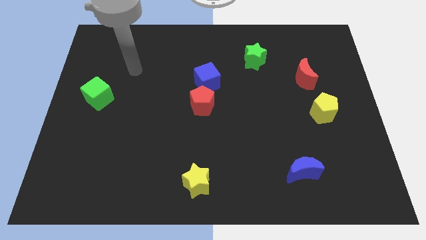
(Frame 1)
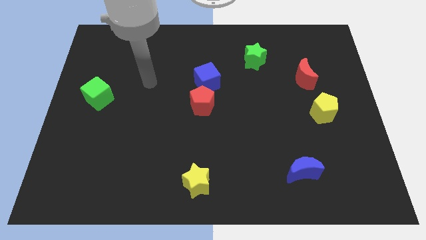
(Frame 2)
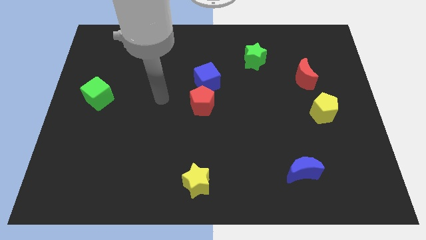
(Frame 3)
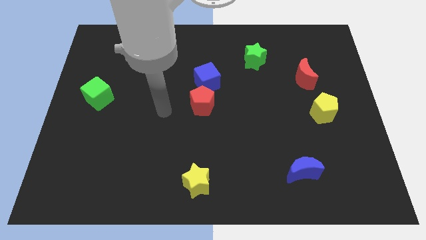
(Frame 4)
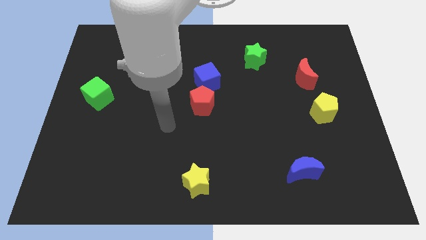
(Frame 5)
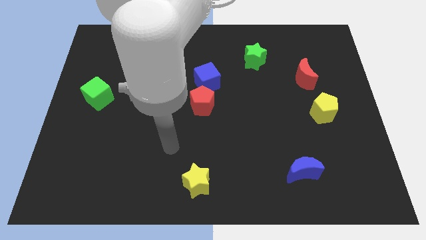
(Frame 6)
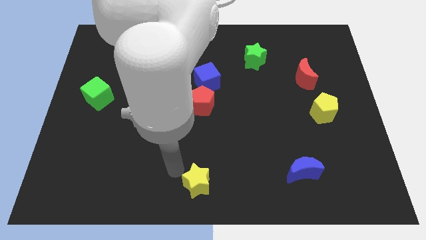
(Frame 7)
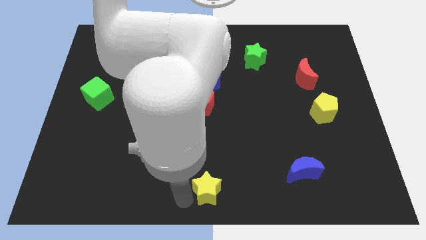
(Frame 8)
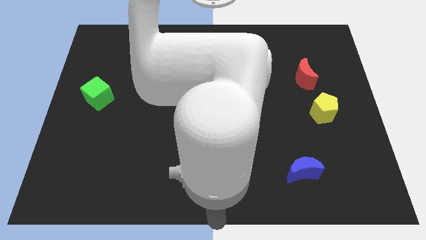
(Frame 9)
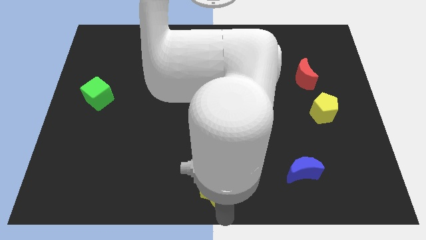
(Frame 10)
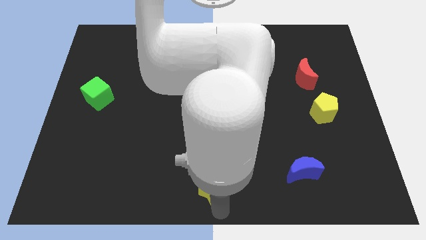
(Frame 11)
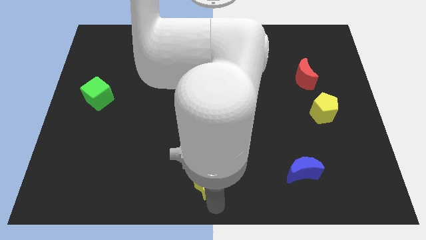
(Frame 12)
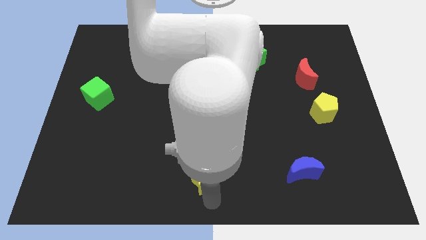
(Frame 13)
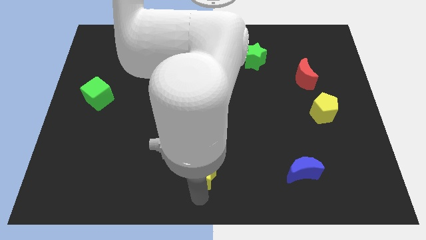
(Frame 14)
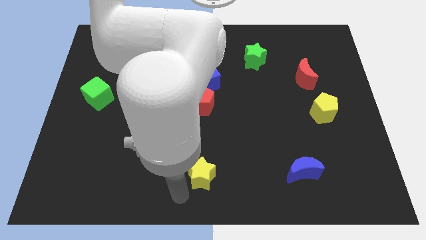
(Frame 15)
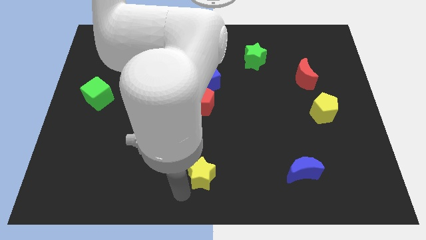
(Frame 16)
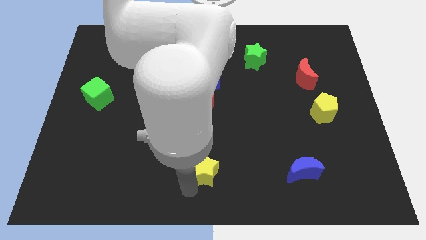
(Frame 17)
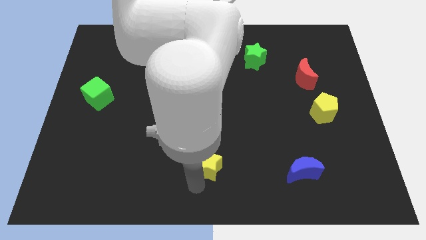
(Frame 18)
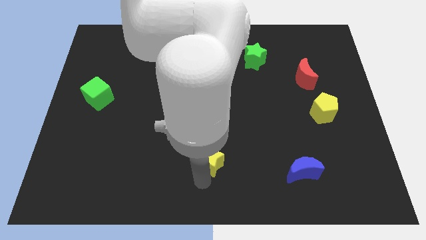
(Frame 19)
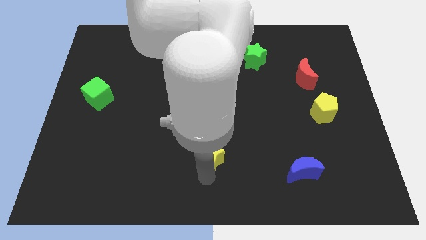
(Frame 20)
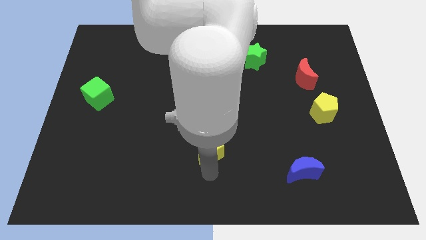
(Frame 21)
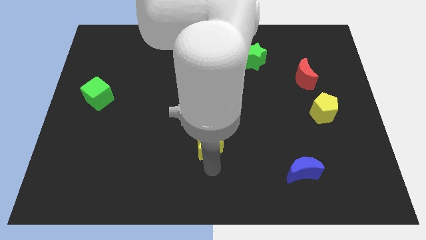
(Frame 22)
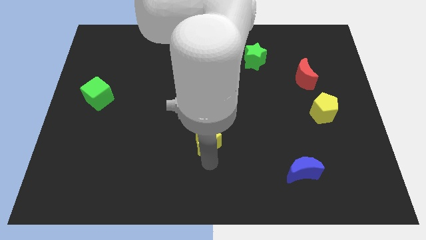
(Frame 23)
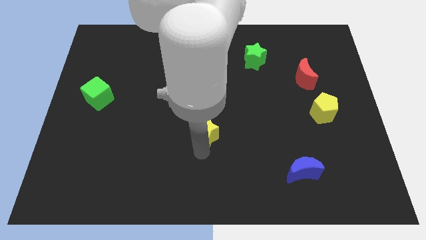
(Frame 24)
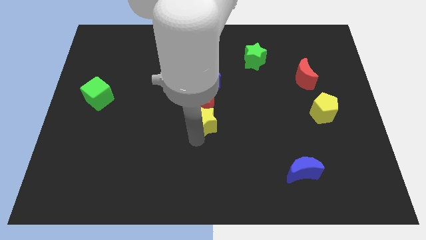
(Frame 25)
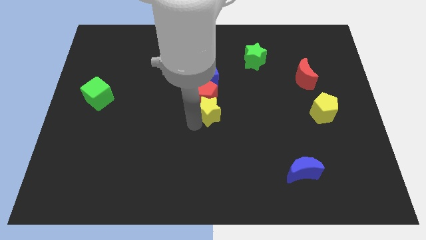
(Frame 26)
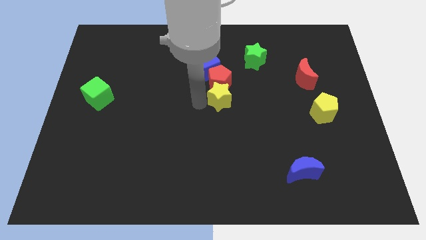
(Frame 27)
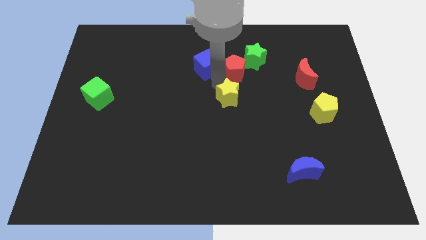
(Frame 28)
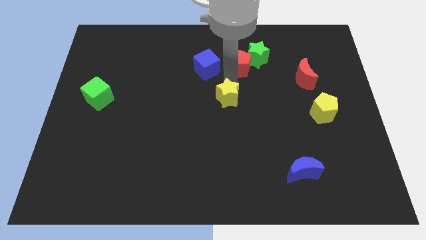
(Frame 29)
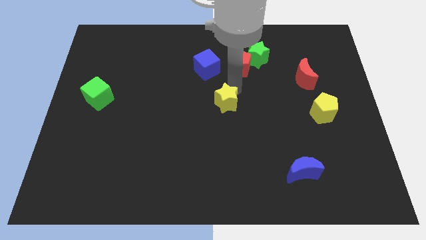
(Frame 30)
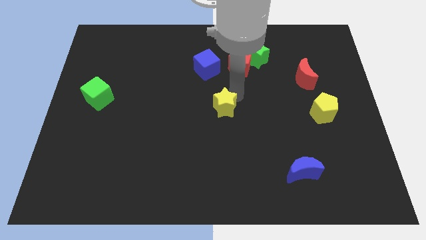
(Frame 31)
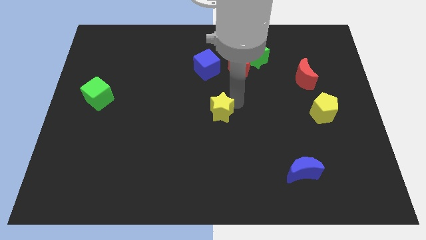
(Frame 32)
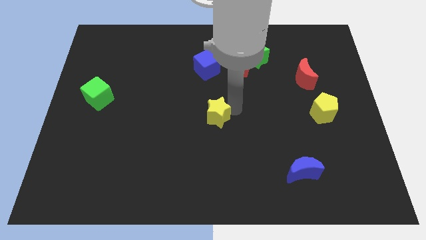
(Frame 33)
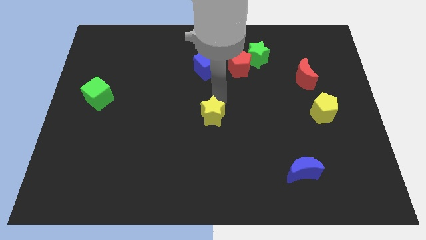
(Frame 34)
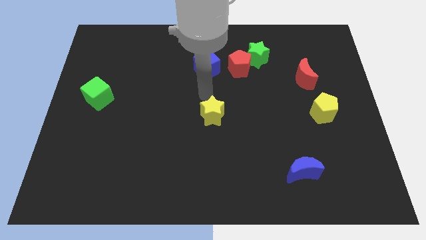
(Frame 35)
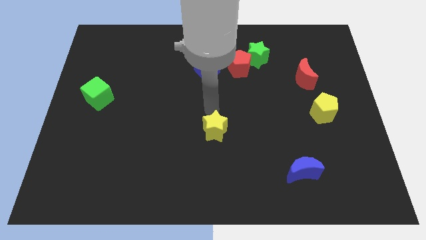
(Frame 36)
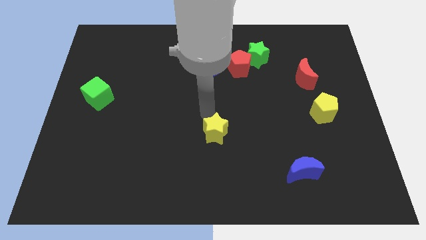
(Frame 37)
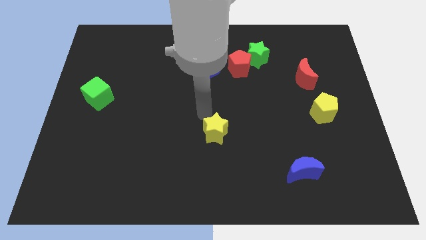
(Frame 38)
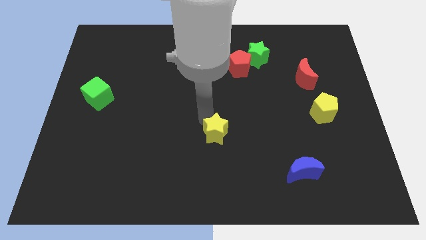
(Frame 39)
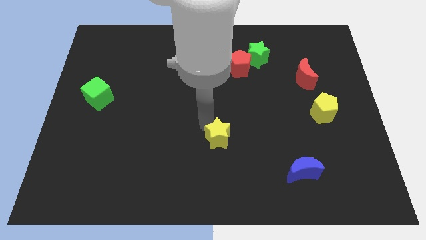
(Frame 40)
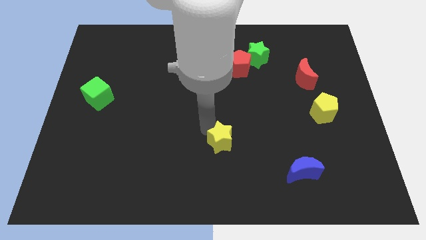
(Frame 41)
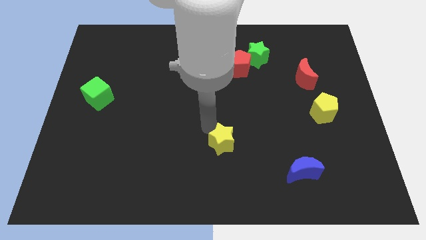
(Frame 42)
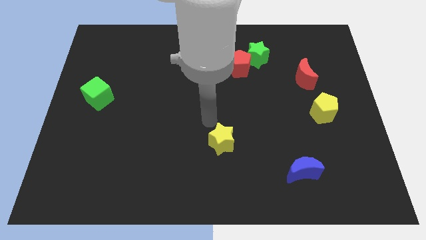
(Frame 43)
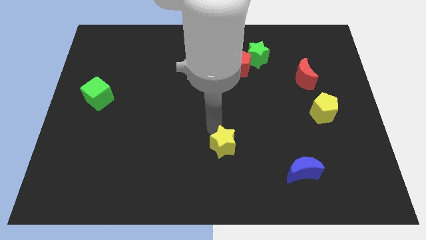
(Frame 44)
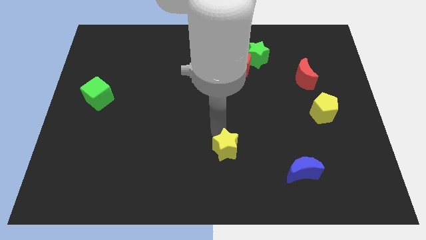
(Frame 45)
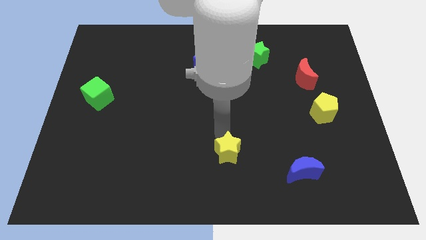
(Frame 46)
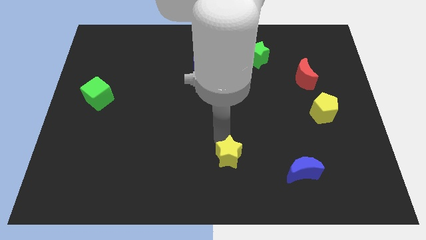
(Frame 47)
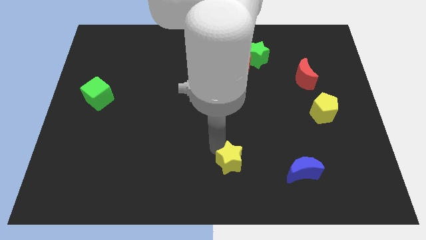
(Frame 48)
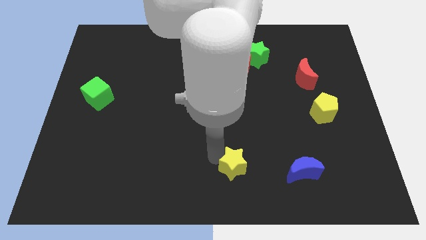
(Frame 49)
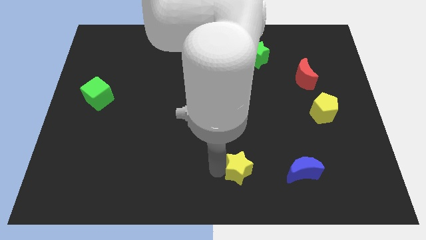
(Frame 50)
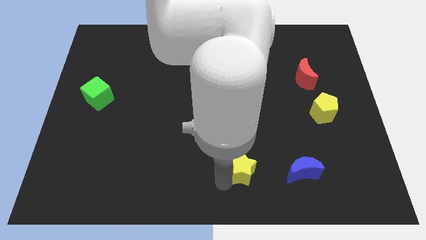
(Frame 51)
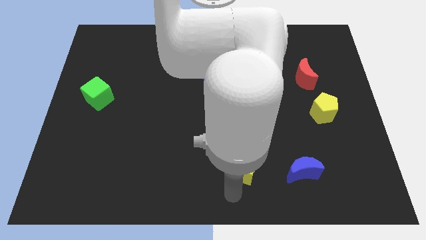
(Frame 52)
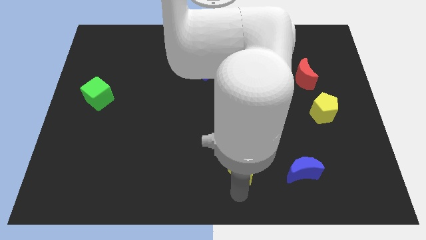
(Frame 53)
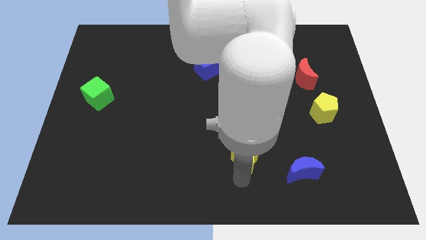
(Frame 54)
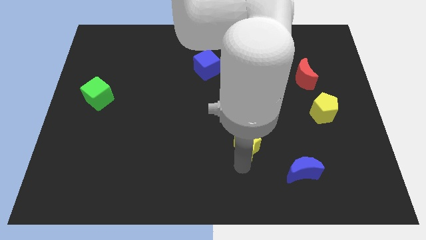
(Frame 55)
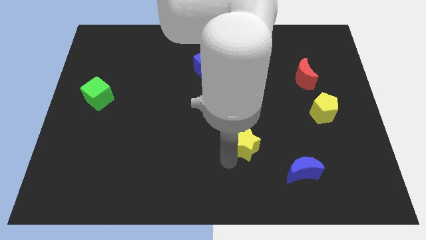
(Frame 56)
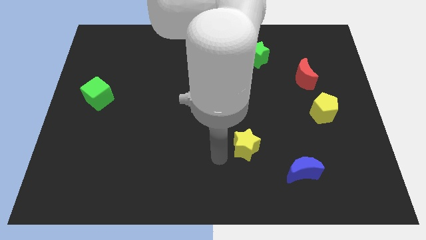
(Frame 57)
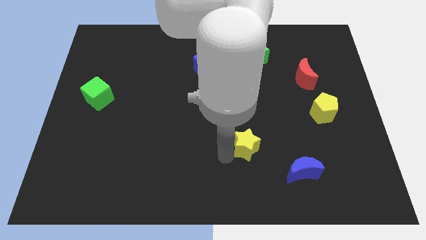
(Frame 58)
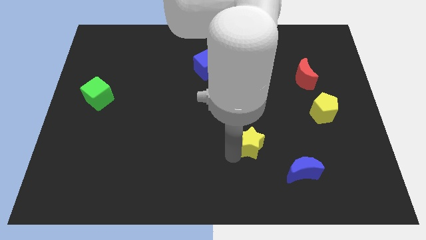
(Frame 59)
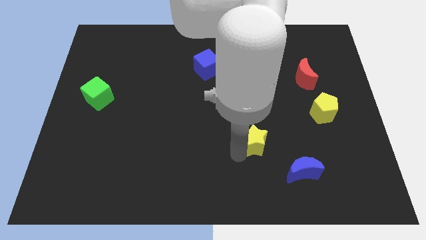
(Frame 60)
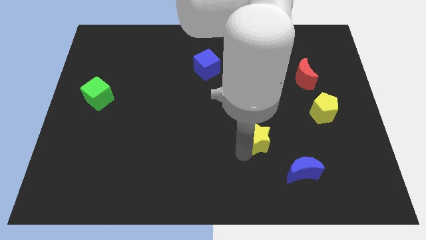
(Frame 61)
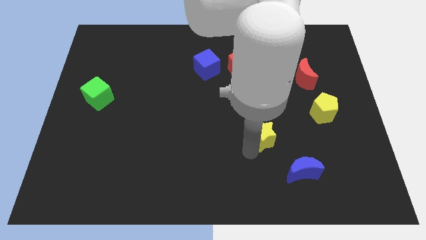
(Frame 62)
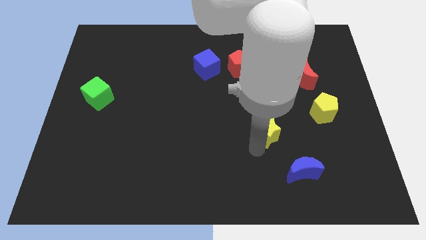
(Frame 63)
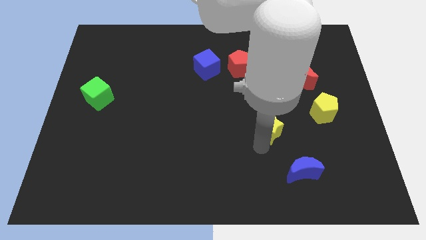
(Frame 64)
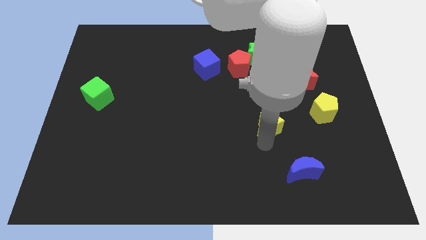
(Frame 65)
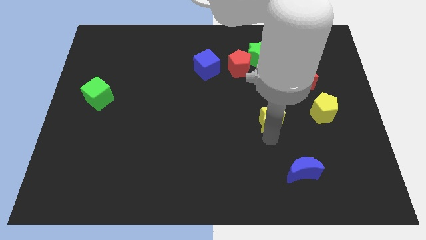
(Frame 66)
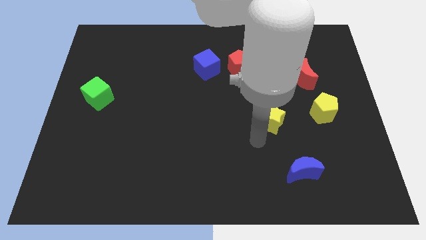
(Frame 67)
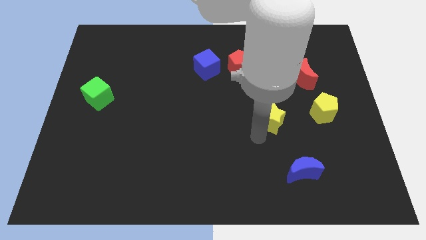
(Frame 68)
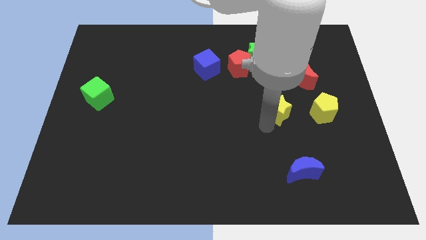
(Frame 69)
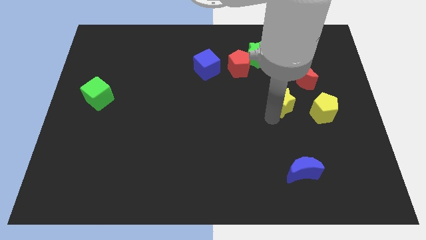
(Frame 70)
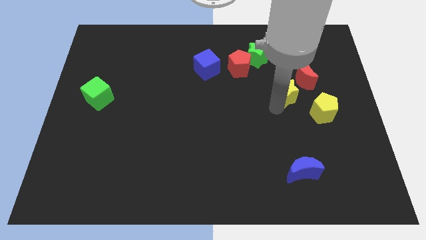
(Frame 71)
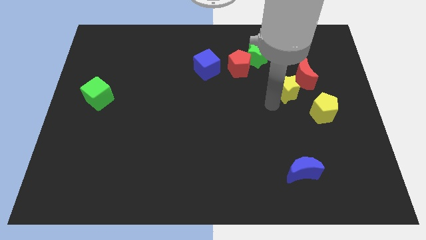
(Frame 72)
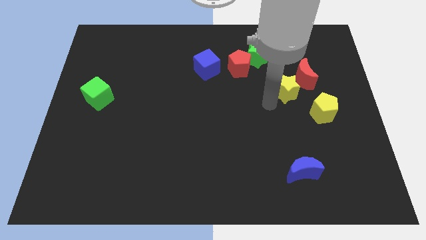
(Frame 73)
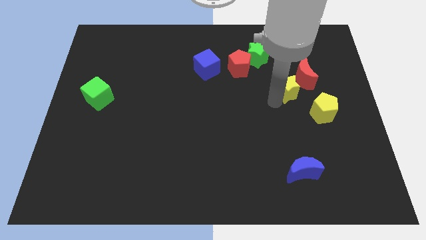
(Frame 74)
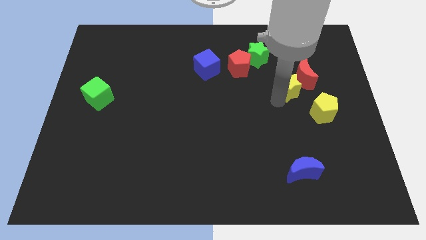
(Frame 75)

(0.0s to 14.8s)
move the yellow star towards the red moon
